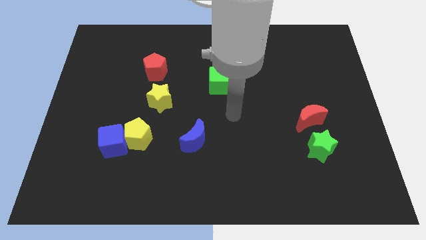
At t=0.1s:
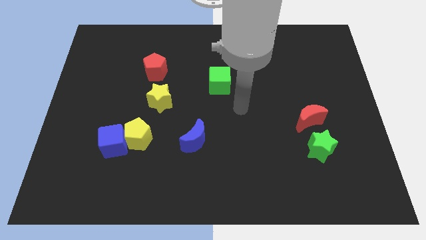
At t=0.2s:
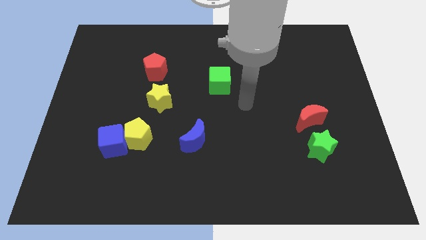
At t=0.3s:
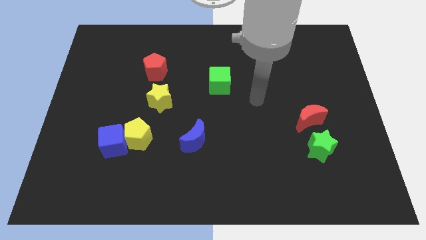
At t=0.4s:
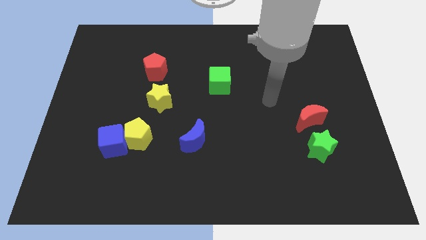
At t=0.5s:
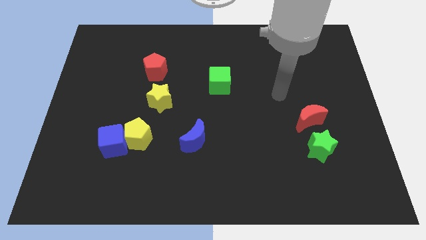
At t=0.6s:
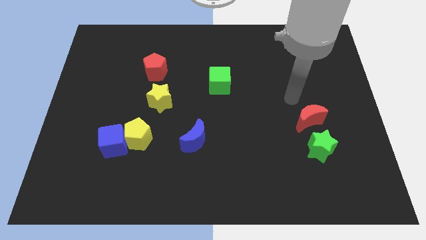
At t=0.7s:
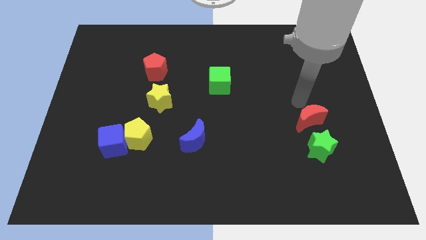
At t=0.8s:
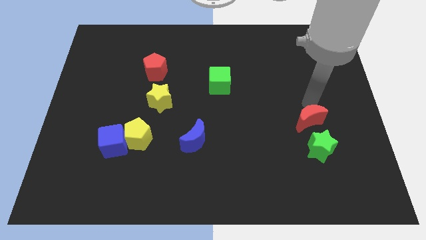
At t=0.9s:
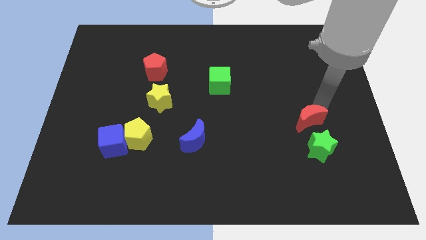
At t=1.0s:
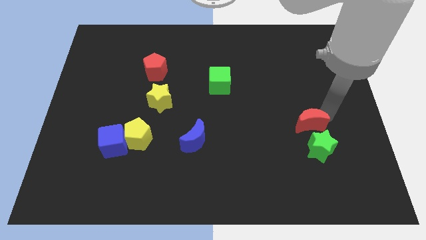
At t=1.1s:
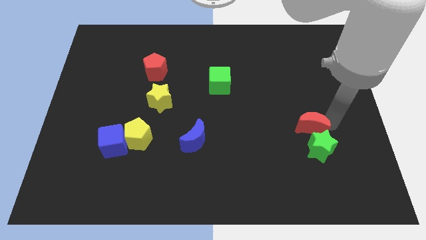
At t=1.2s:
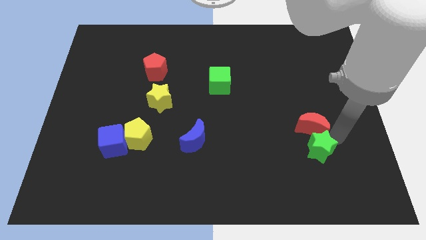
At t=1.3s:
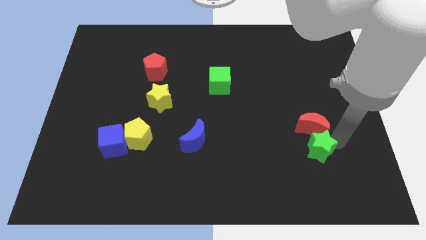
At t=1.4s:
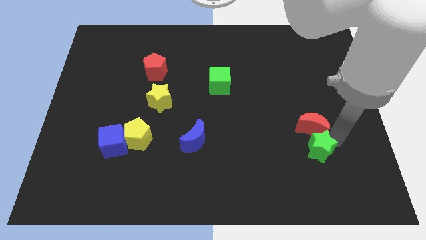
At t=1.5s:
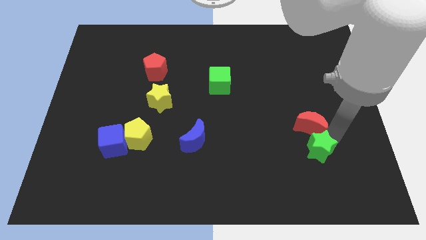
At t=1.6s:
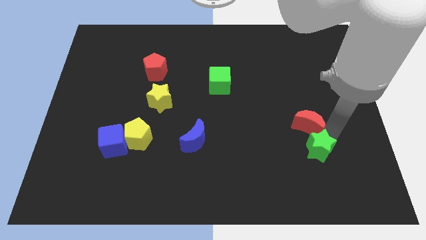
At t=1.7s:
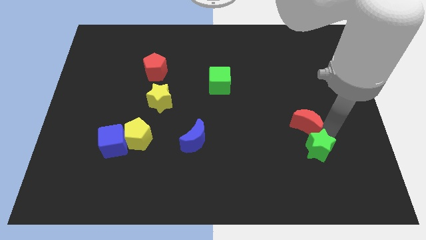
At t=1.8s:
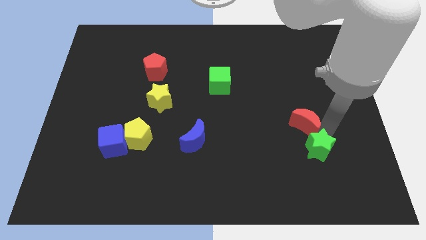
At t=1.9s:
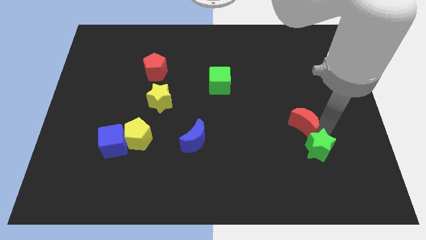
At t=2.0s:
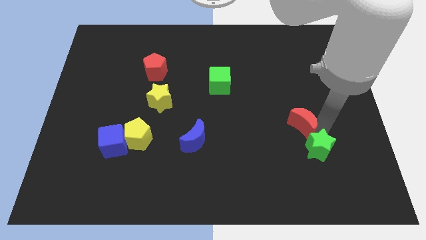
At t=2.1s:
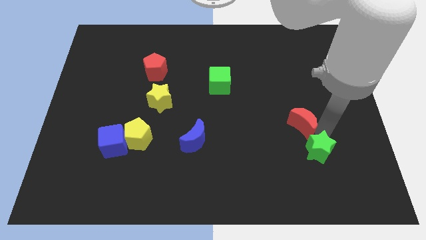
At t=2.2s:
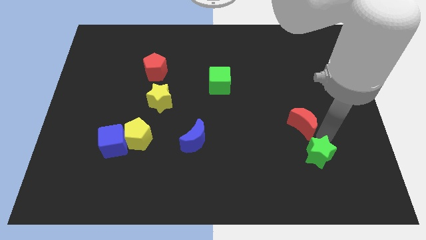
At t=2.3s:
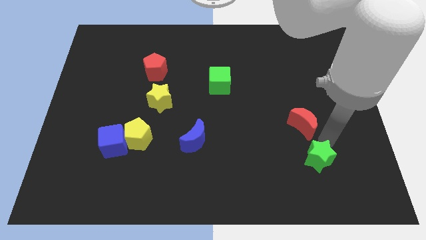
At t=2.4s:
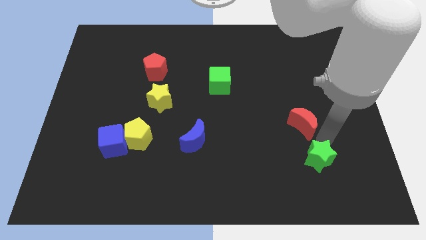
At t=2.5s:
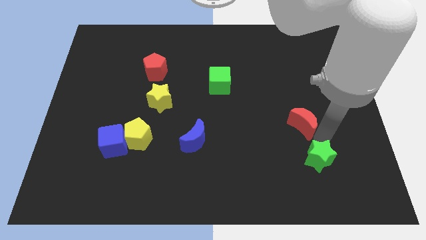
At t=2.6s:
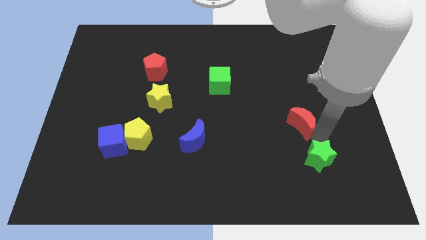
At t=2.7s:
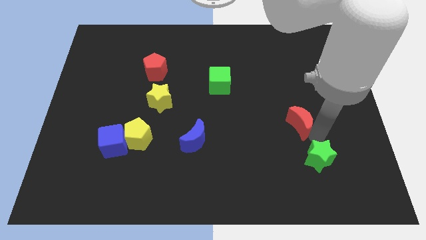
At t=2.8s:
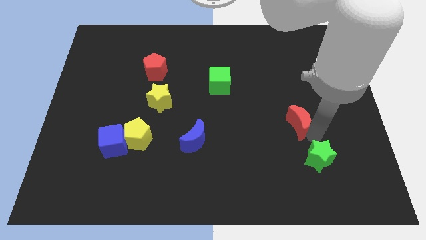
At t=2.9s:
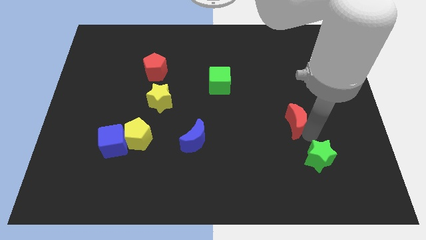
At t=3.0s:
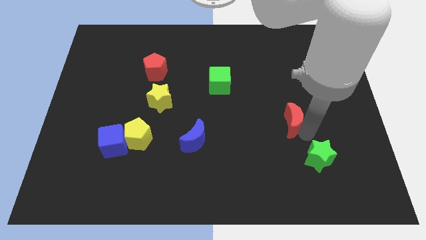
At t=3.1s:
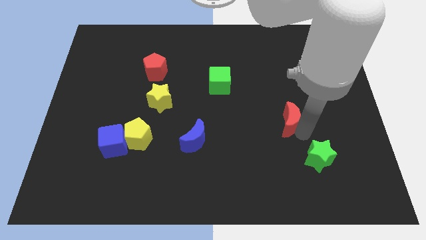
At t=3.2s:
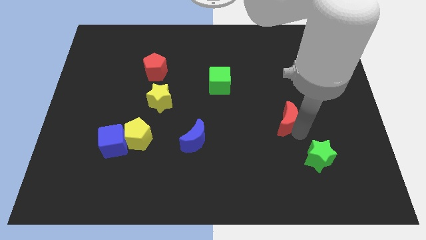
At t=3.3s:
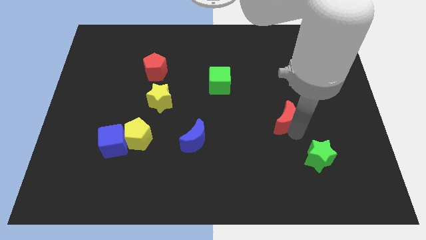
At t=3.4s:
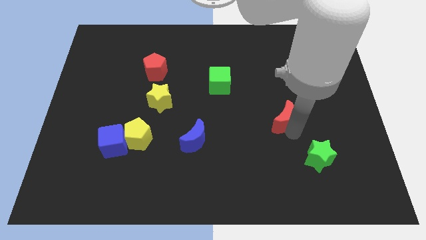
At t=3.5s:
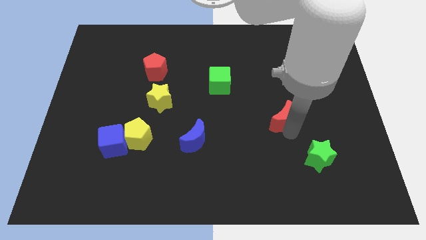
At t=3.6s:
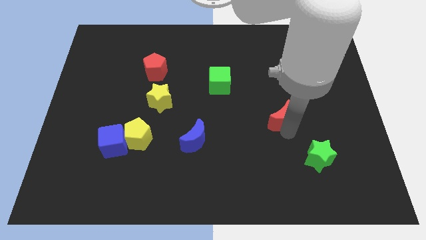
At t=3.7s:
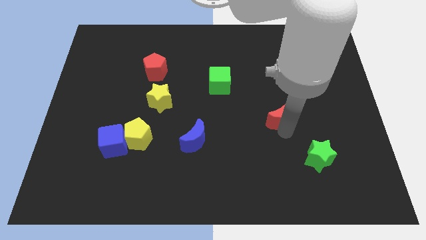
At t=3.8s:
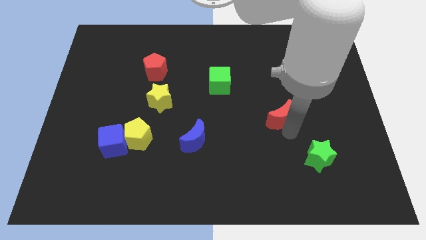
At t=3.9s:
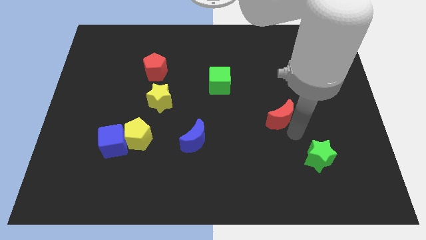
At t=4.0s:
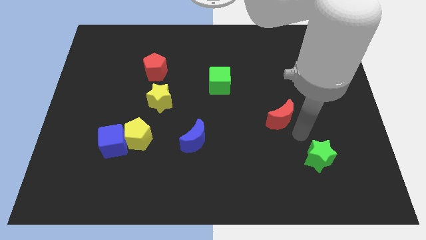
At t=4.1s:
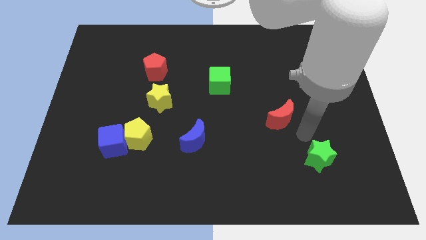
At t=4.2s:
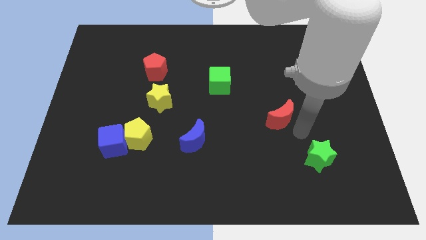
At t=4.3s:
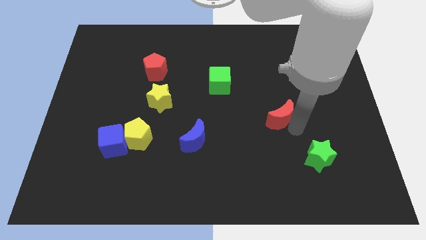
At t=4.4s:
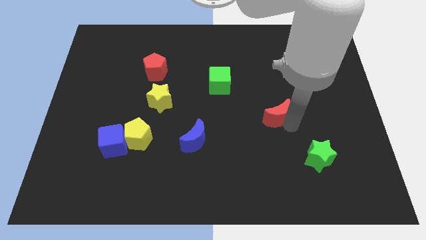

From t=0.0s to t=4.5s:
slightly move the red moon to the left

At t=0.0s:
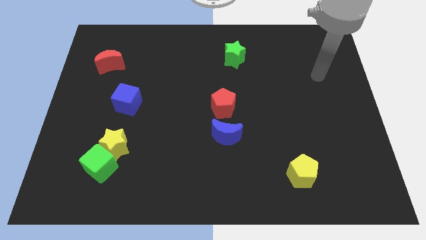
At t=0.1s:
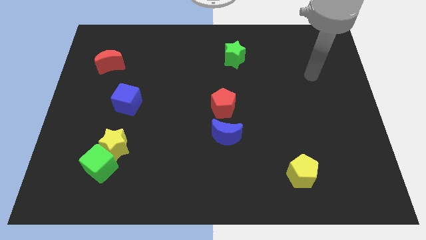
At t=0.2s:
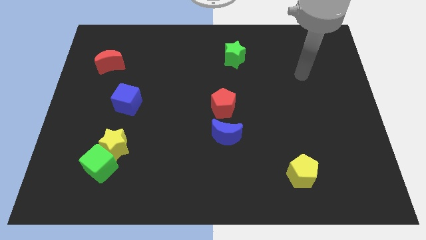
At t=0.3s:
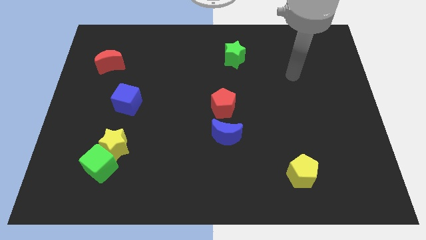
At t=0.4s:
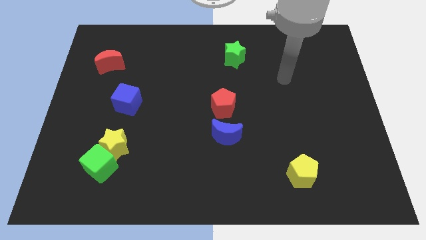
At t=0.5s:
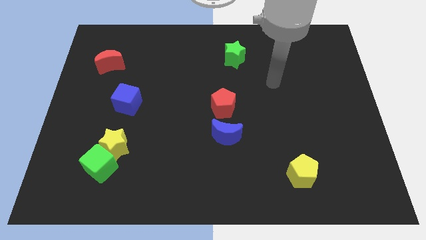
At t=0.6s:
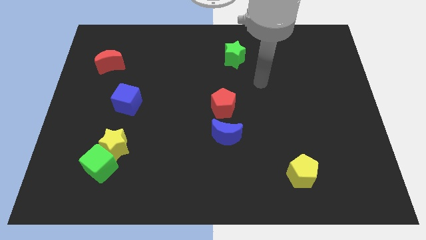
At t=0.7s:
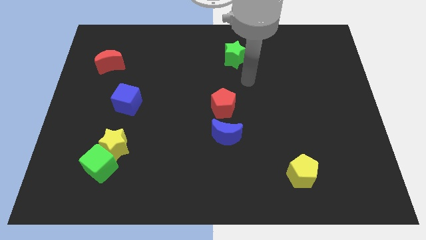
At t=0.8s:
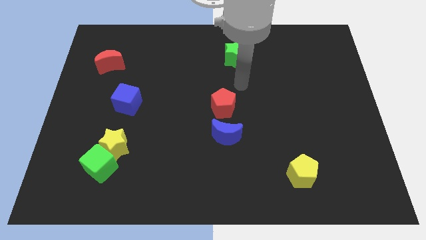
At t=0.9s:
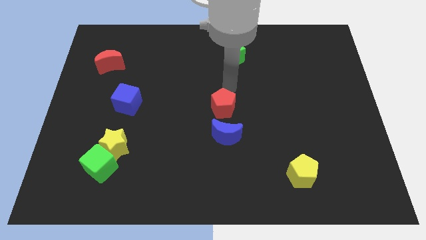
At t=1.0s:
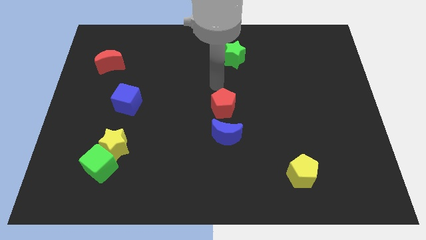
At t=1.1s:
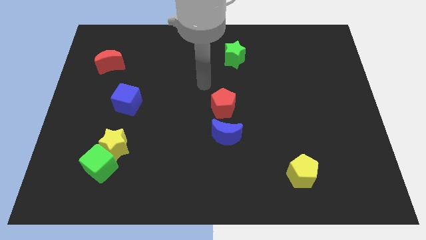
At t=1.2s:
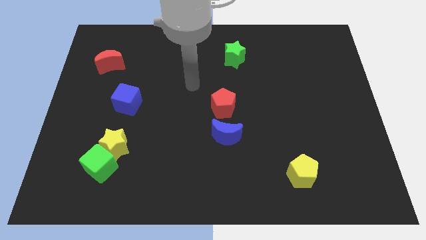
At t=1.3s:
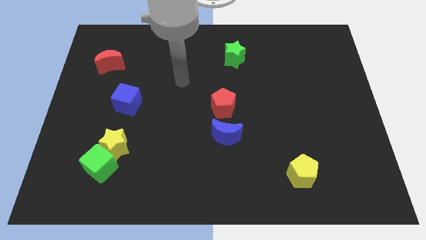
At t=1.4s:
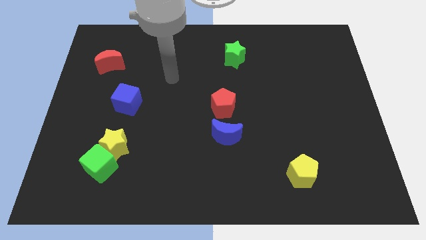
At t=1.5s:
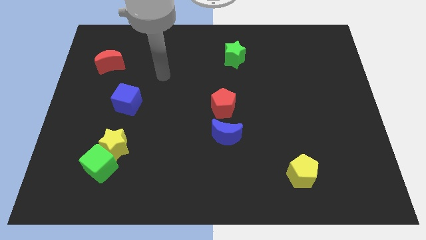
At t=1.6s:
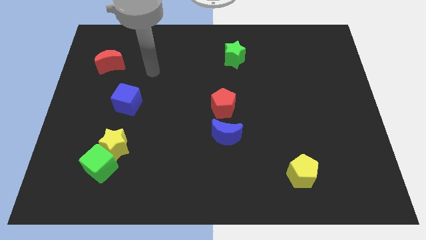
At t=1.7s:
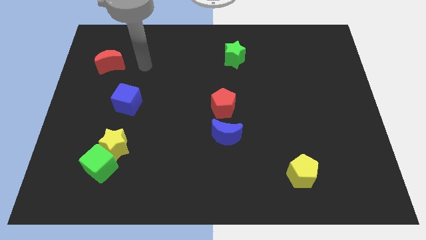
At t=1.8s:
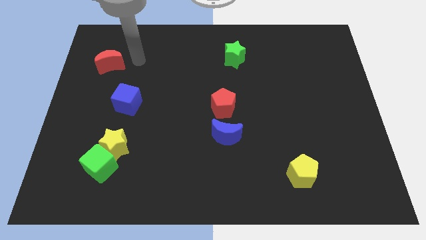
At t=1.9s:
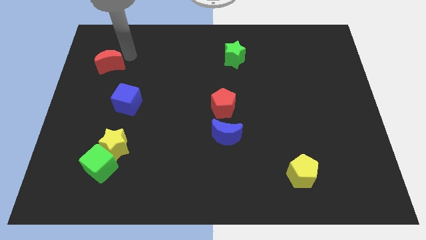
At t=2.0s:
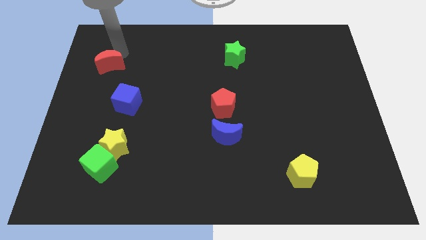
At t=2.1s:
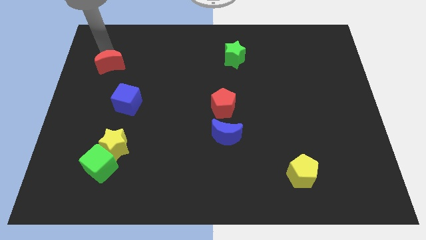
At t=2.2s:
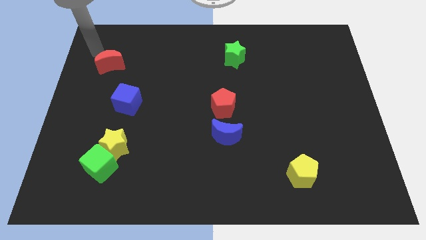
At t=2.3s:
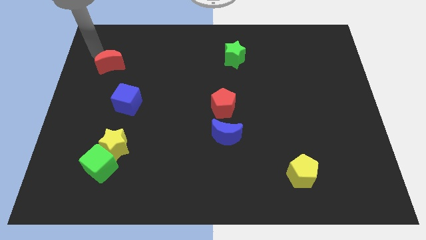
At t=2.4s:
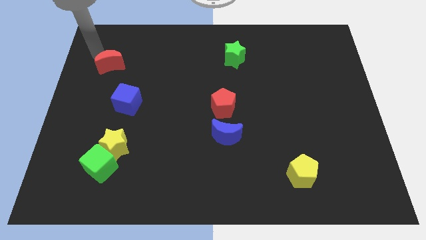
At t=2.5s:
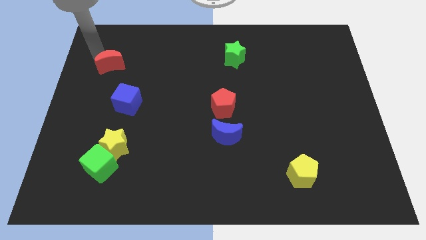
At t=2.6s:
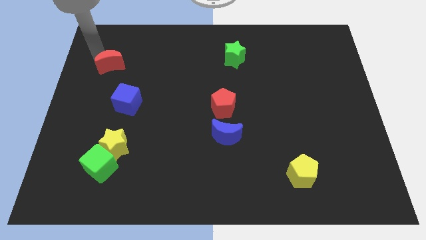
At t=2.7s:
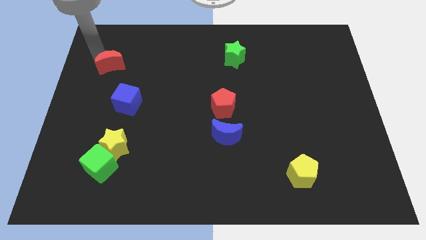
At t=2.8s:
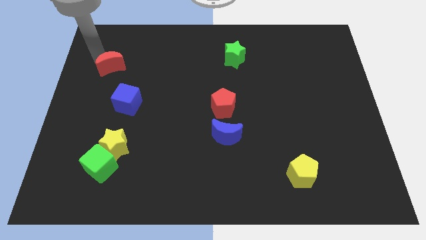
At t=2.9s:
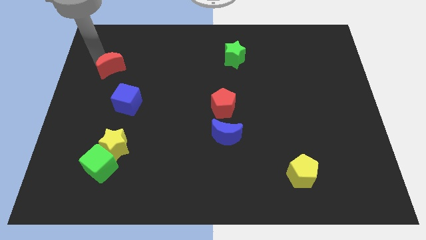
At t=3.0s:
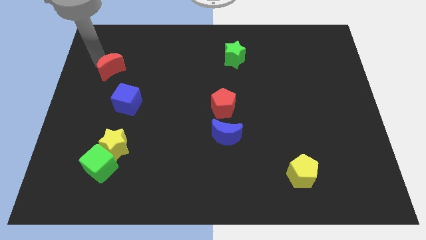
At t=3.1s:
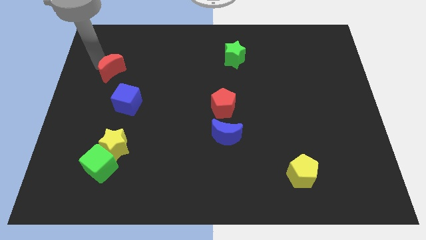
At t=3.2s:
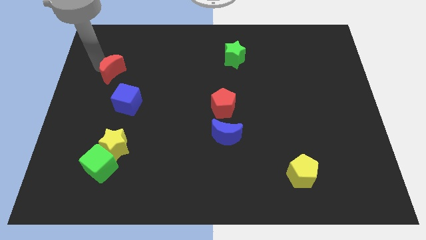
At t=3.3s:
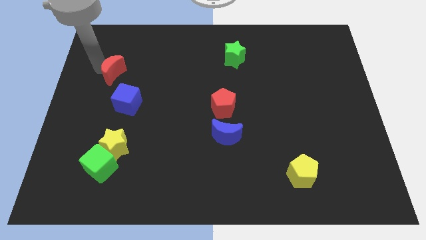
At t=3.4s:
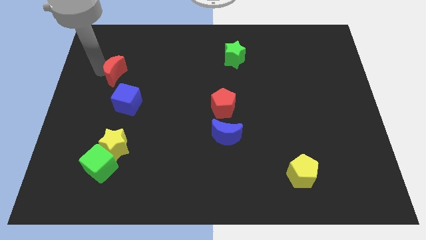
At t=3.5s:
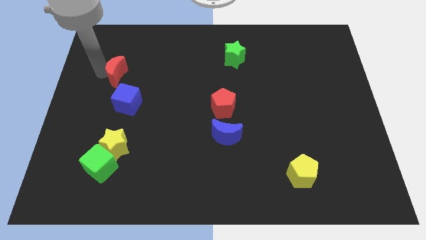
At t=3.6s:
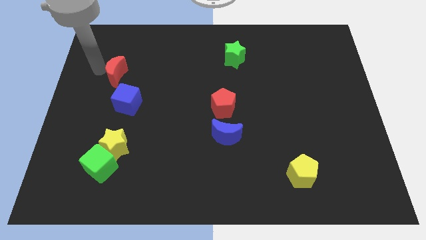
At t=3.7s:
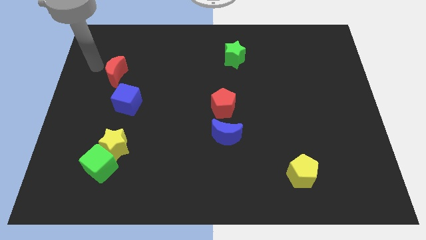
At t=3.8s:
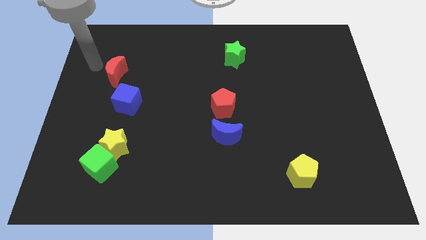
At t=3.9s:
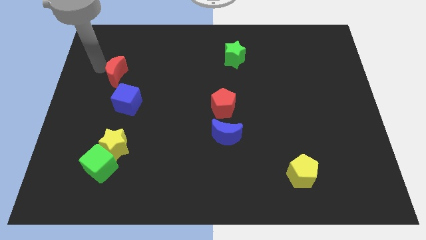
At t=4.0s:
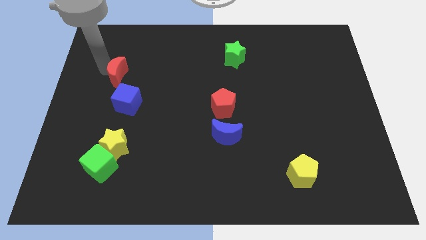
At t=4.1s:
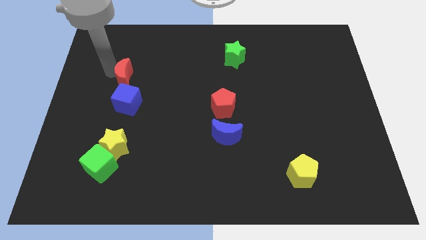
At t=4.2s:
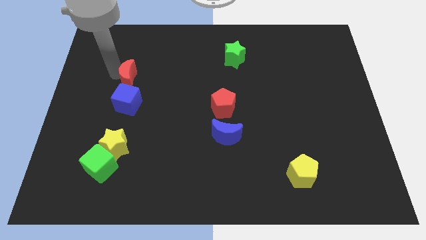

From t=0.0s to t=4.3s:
slide the red moon diagonally downwards and to the right a little bit
